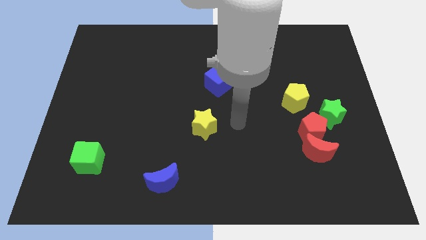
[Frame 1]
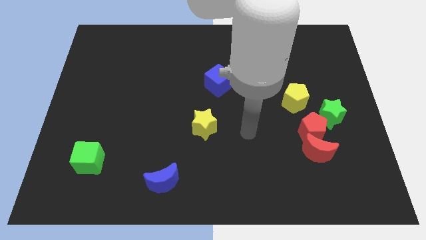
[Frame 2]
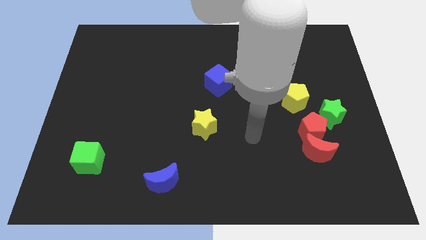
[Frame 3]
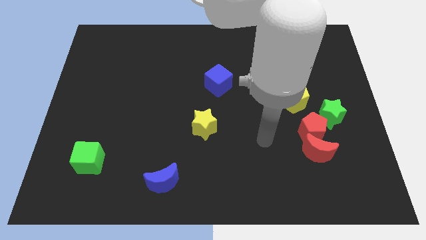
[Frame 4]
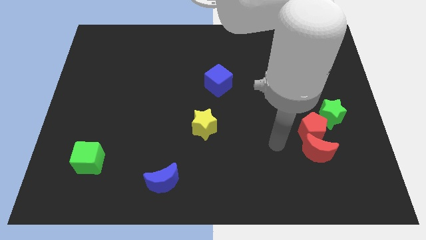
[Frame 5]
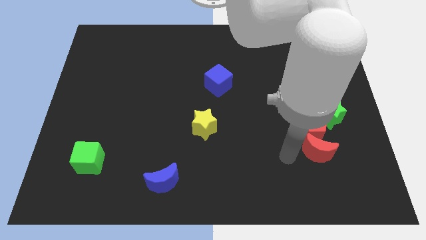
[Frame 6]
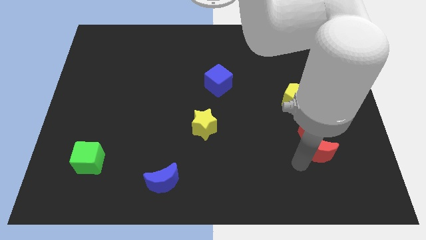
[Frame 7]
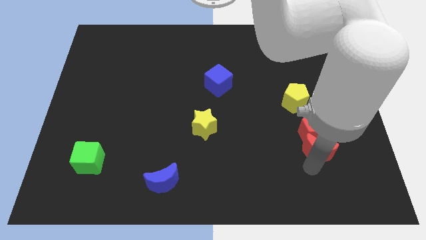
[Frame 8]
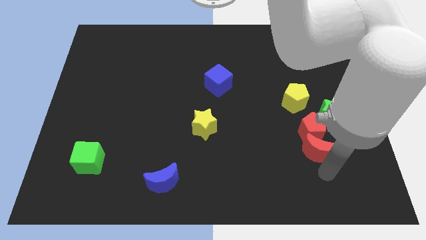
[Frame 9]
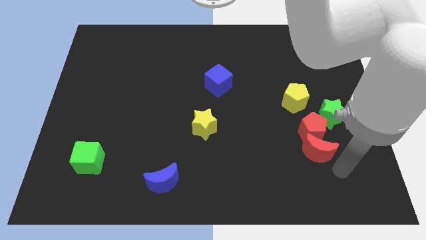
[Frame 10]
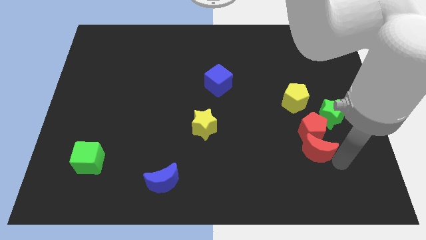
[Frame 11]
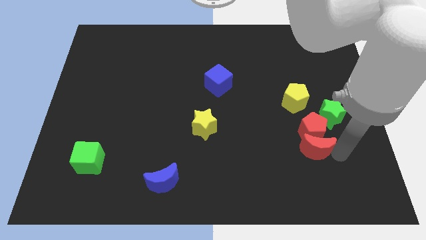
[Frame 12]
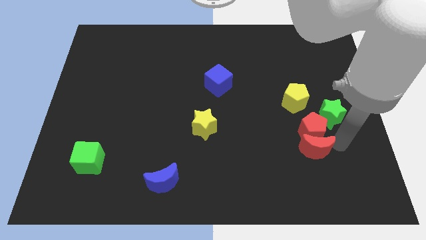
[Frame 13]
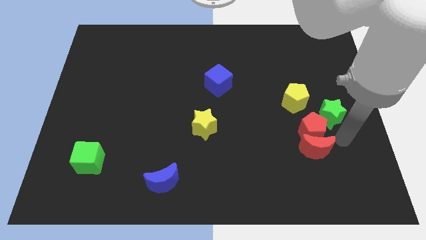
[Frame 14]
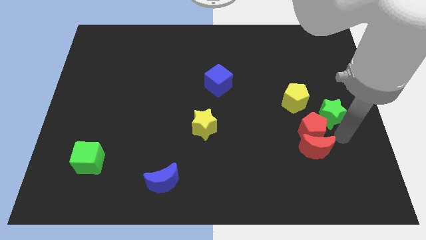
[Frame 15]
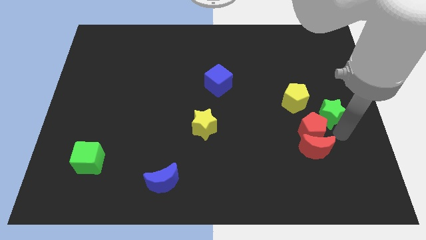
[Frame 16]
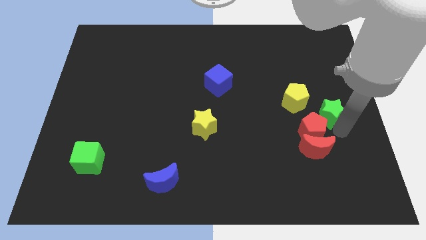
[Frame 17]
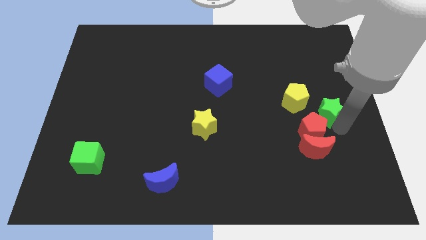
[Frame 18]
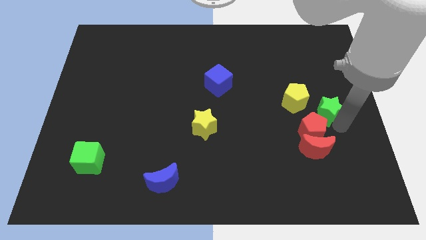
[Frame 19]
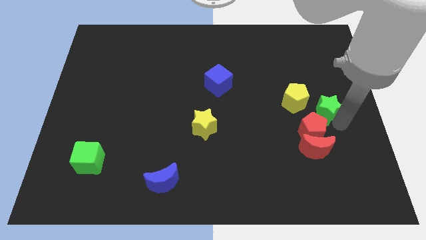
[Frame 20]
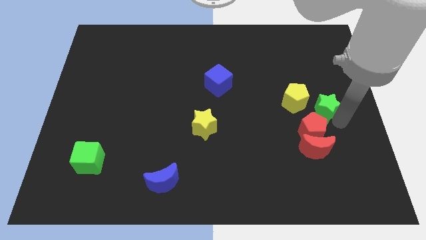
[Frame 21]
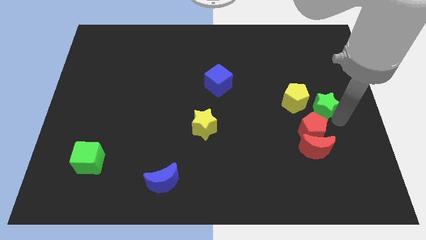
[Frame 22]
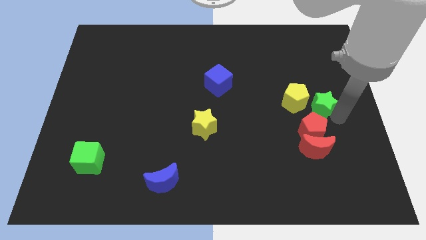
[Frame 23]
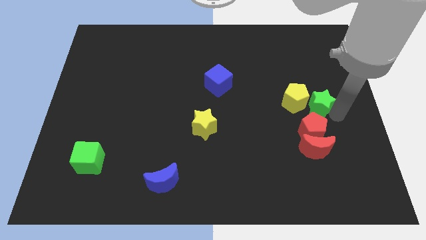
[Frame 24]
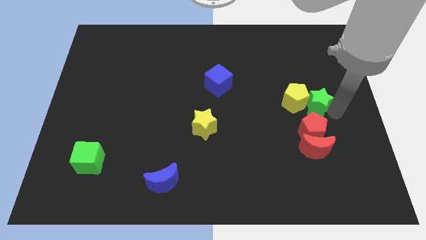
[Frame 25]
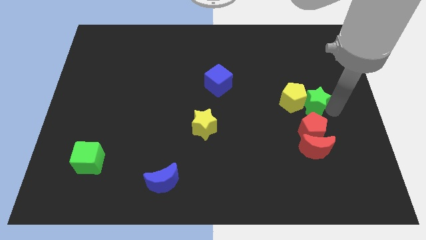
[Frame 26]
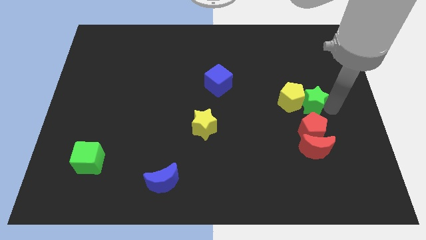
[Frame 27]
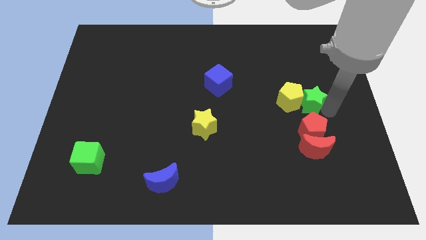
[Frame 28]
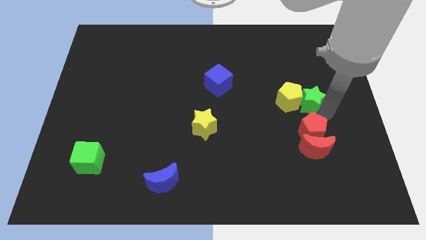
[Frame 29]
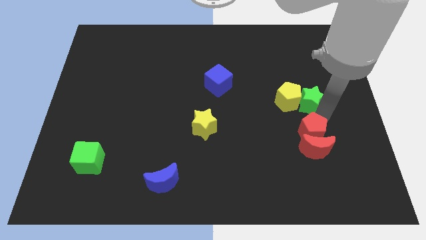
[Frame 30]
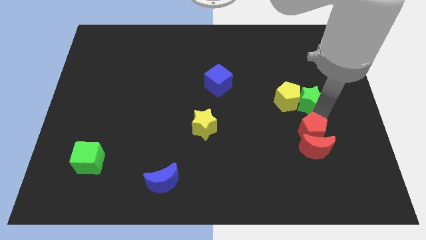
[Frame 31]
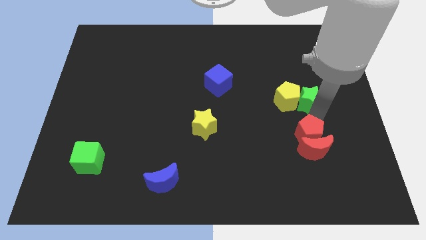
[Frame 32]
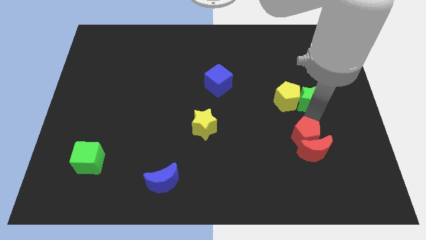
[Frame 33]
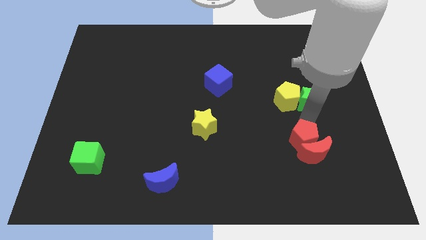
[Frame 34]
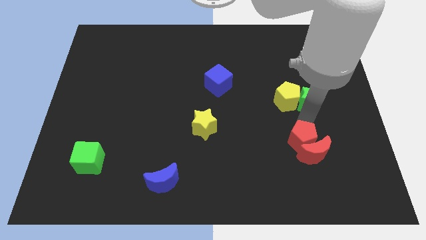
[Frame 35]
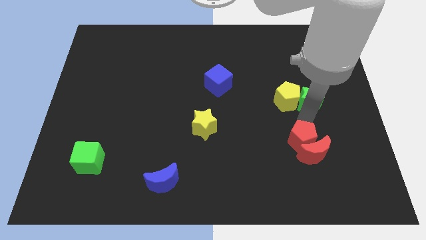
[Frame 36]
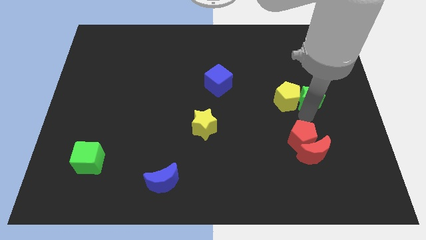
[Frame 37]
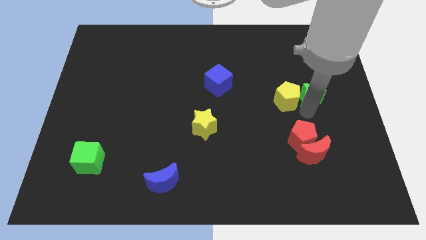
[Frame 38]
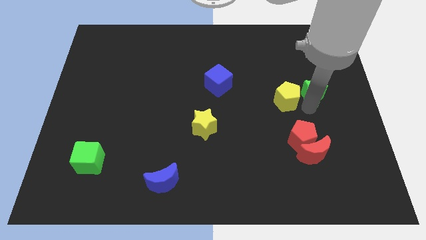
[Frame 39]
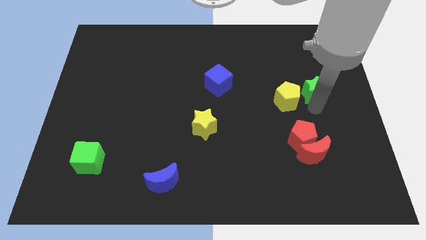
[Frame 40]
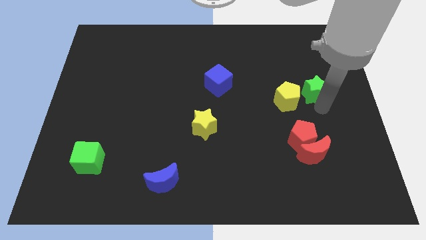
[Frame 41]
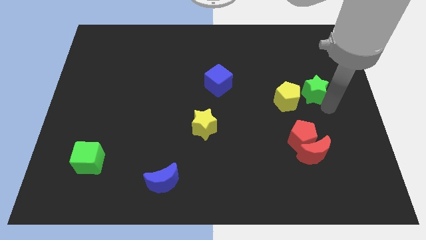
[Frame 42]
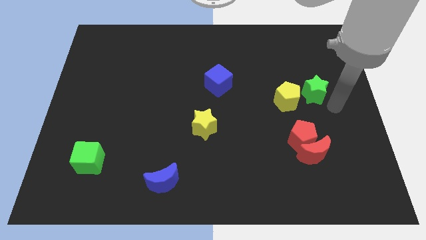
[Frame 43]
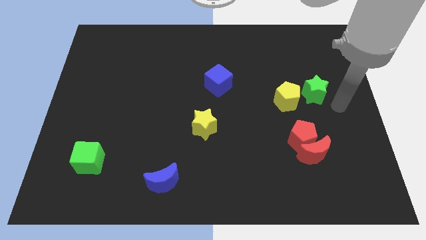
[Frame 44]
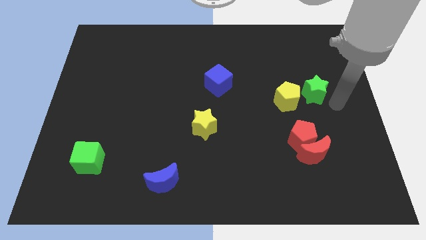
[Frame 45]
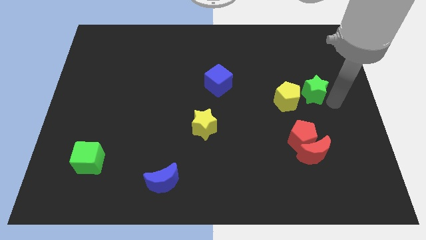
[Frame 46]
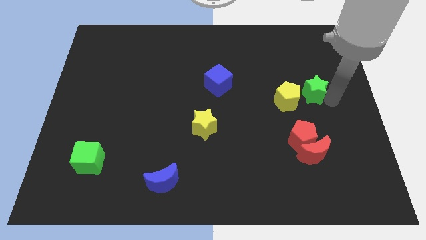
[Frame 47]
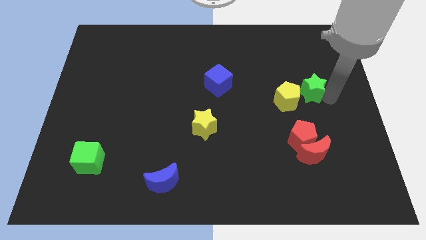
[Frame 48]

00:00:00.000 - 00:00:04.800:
slide the green star up and to the left diagonally a bit

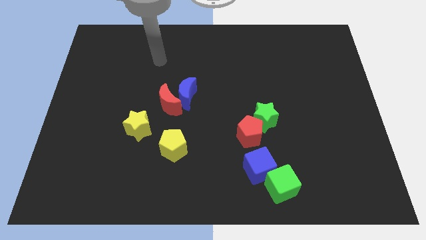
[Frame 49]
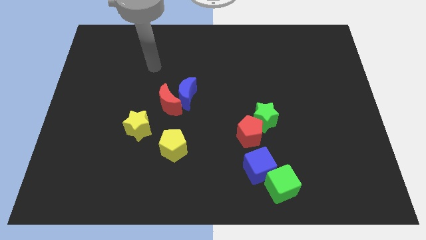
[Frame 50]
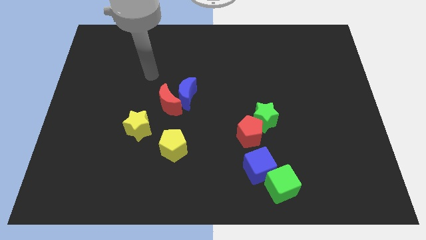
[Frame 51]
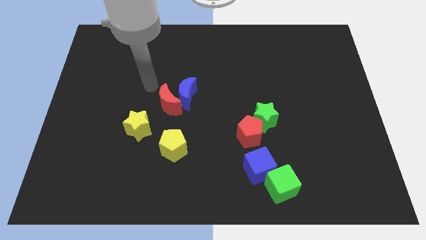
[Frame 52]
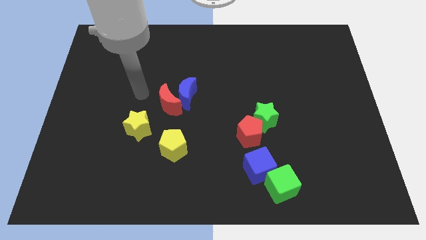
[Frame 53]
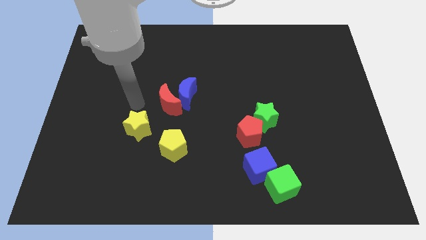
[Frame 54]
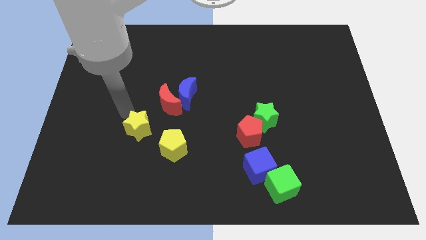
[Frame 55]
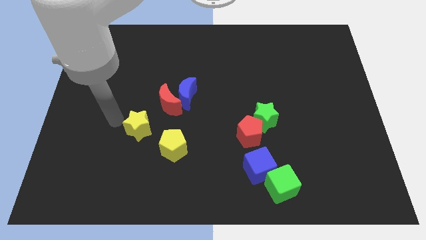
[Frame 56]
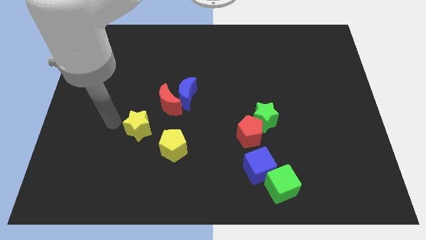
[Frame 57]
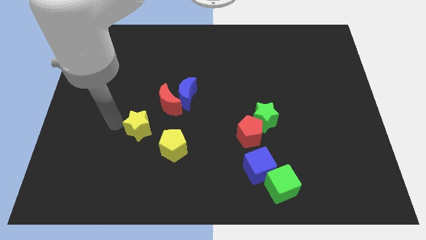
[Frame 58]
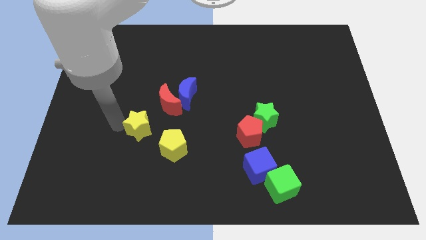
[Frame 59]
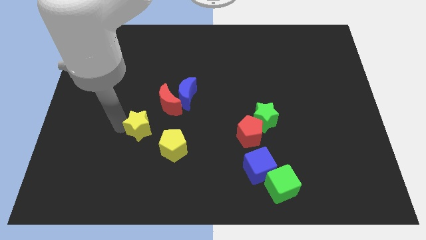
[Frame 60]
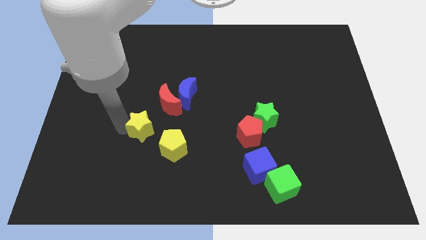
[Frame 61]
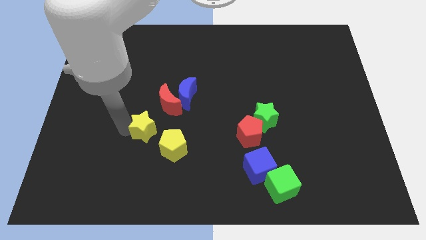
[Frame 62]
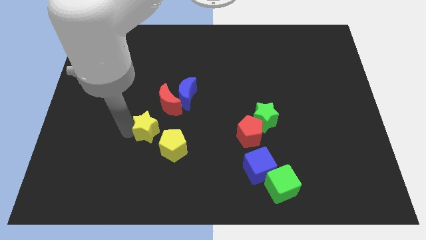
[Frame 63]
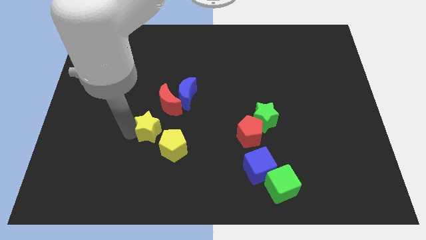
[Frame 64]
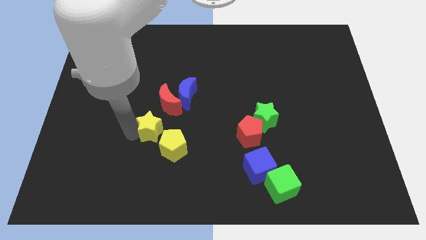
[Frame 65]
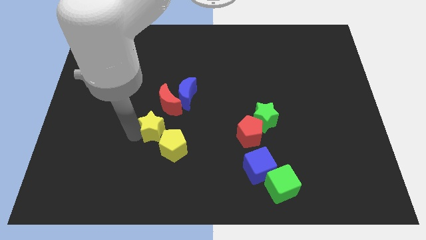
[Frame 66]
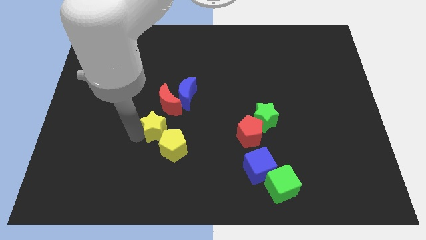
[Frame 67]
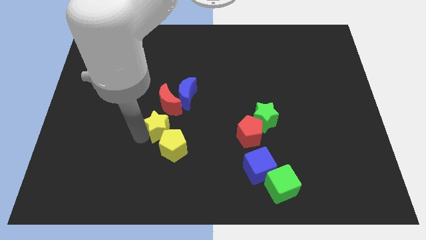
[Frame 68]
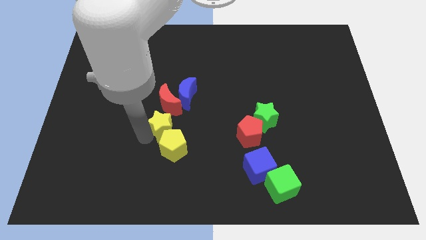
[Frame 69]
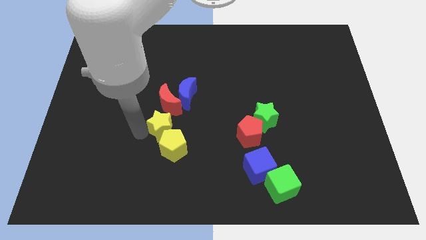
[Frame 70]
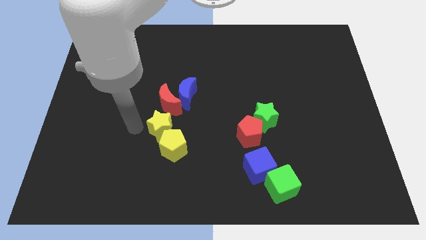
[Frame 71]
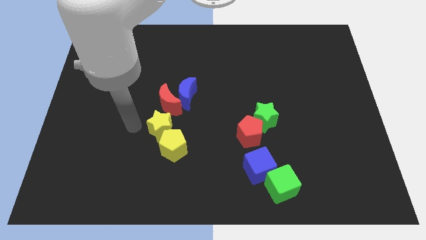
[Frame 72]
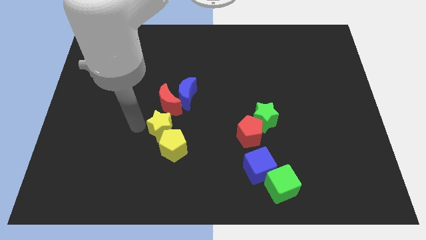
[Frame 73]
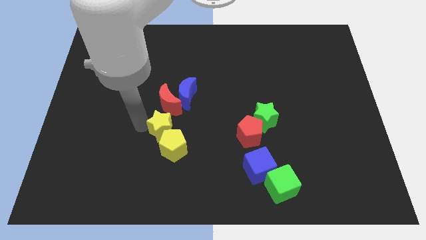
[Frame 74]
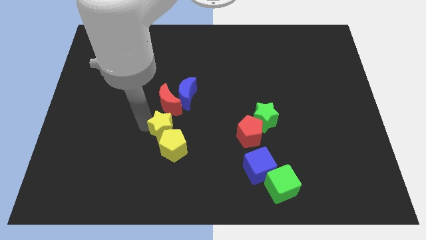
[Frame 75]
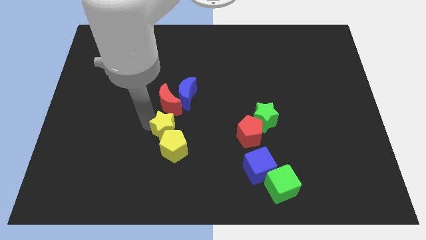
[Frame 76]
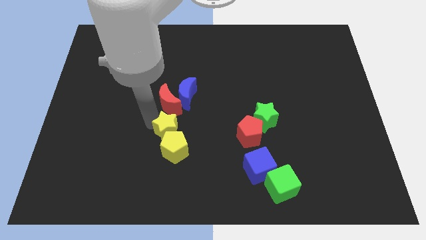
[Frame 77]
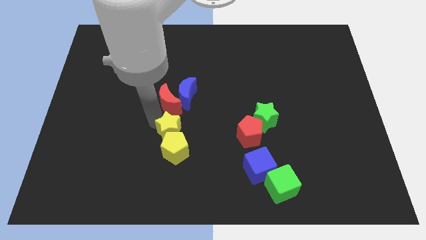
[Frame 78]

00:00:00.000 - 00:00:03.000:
push the yellow star a little right

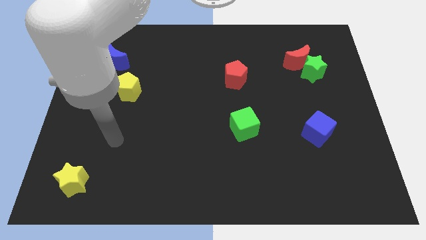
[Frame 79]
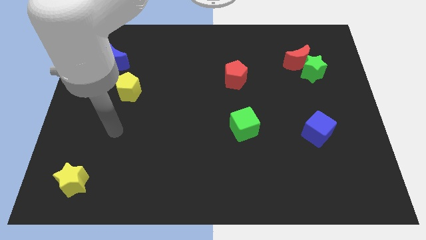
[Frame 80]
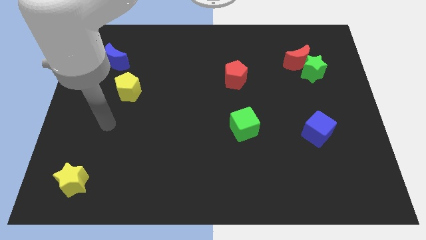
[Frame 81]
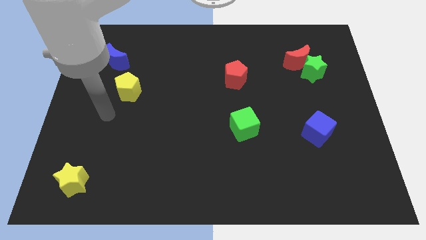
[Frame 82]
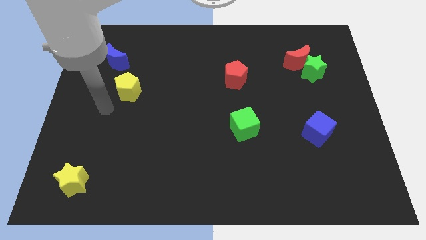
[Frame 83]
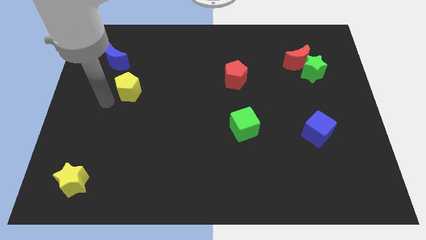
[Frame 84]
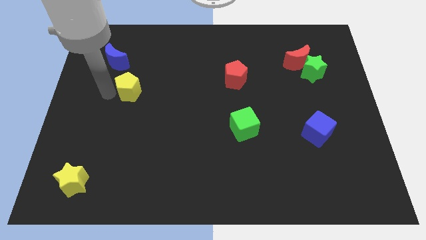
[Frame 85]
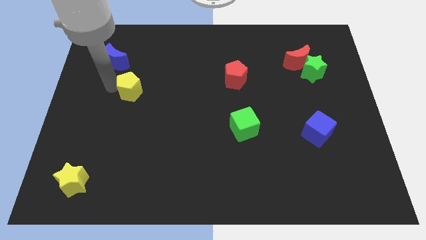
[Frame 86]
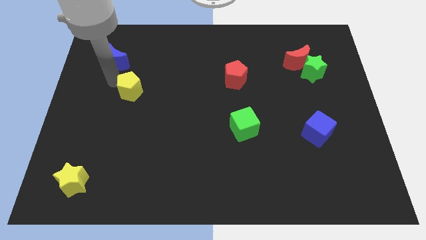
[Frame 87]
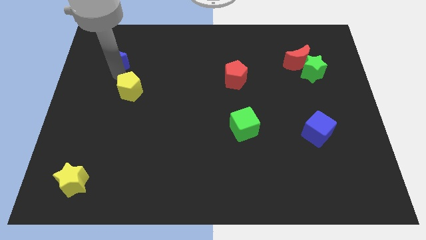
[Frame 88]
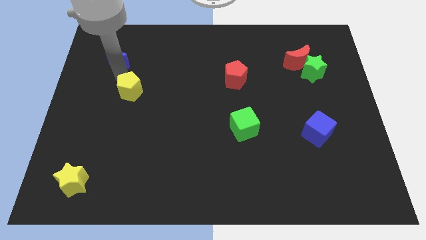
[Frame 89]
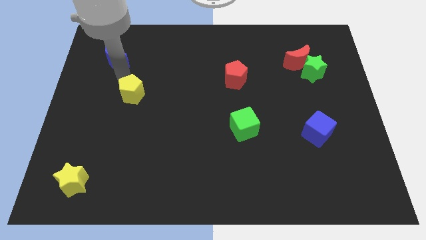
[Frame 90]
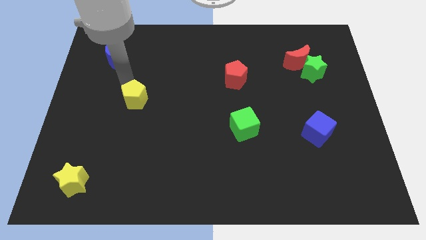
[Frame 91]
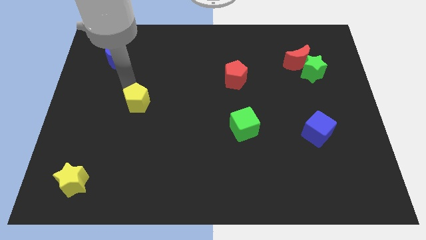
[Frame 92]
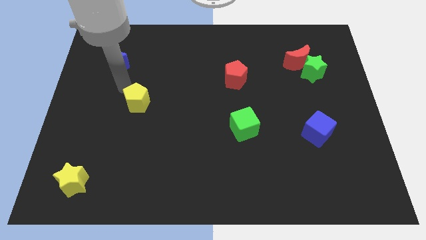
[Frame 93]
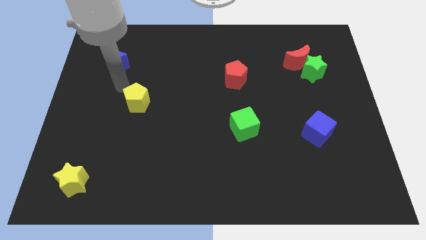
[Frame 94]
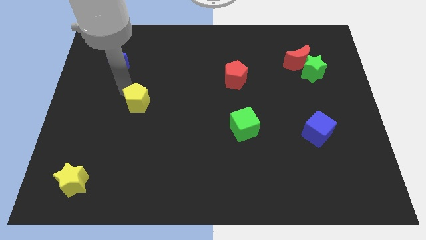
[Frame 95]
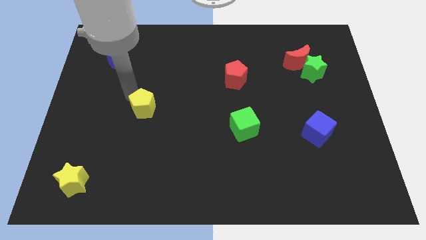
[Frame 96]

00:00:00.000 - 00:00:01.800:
slightly push the yellow pentagon down and right diagonally
